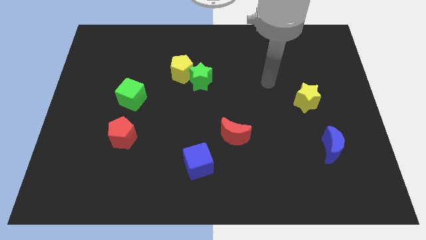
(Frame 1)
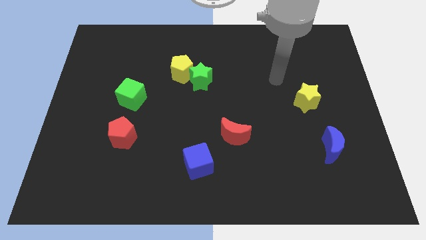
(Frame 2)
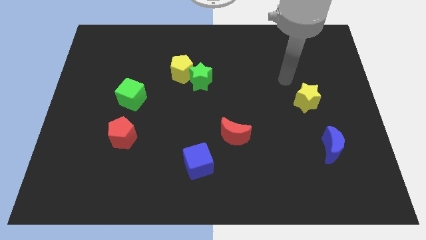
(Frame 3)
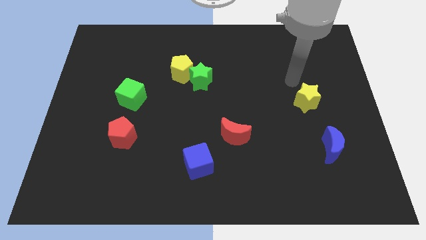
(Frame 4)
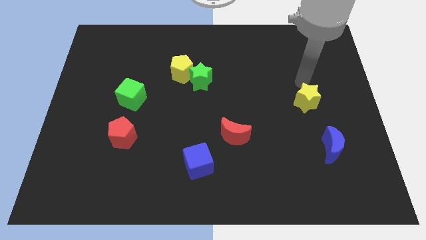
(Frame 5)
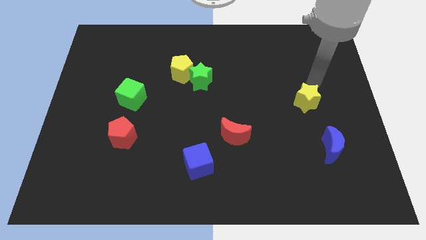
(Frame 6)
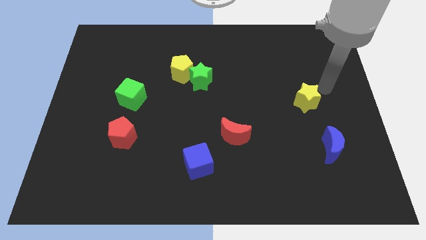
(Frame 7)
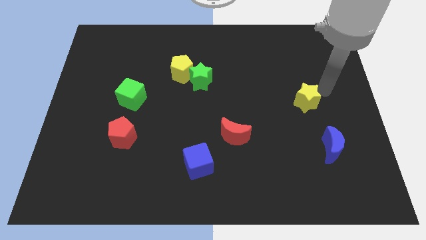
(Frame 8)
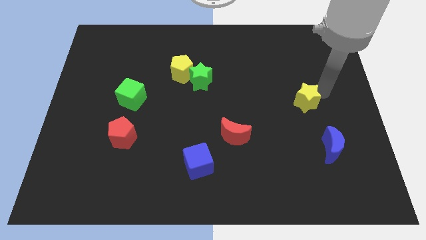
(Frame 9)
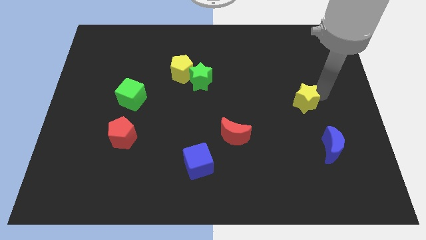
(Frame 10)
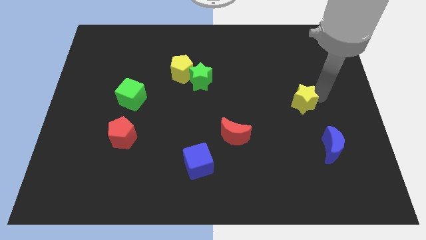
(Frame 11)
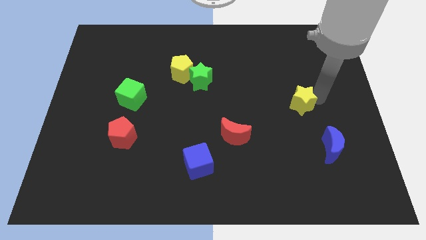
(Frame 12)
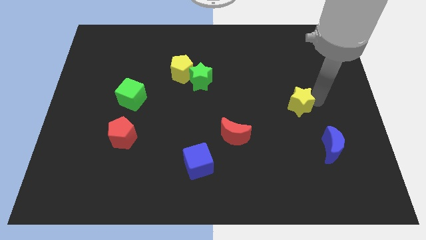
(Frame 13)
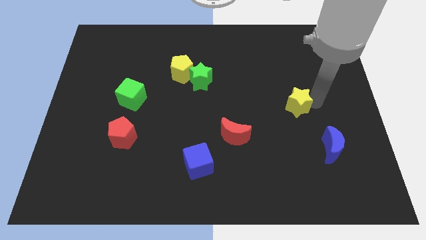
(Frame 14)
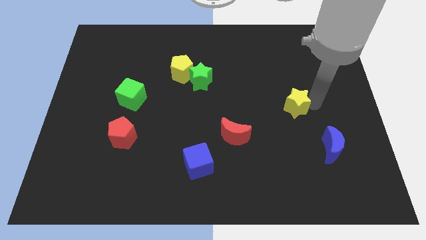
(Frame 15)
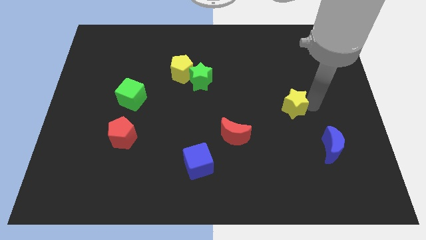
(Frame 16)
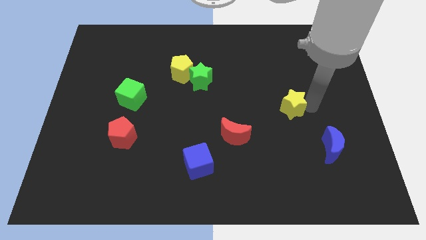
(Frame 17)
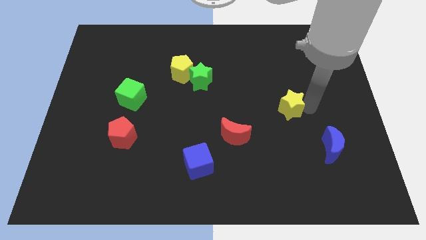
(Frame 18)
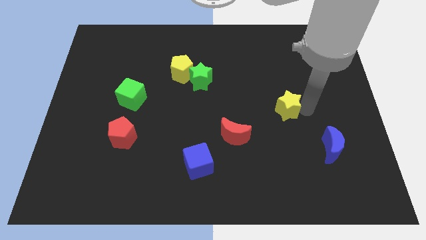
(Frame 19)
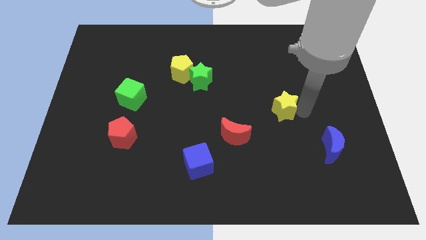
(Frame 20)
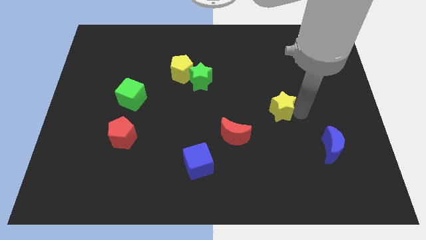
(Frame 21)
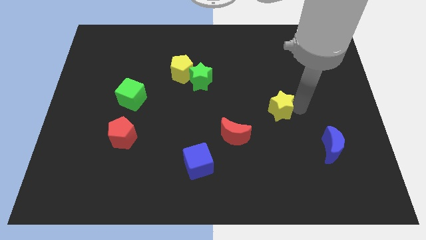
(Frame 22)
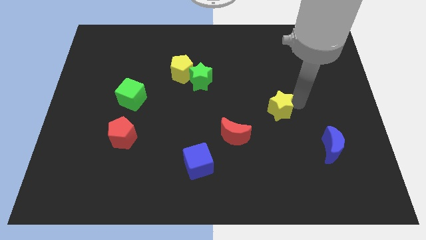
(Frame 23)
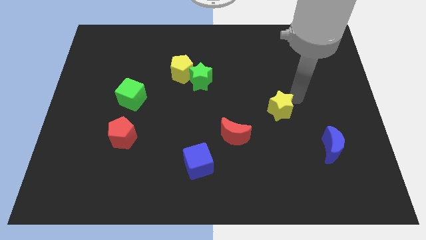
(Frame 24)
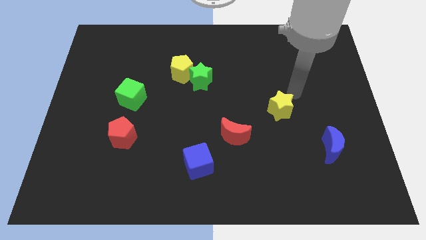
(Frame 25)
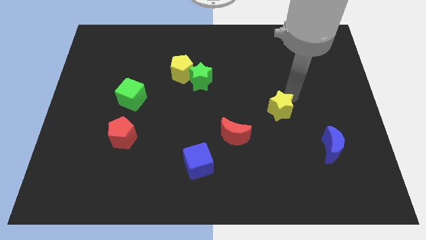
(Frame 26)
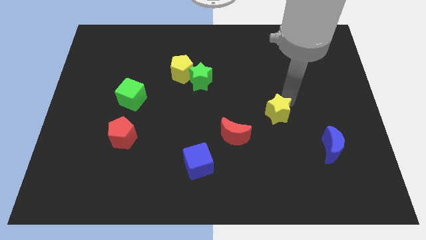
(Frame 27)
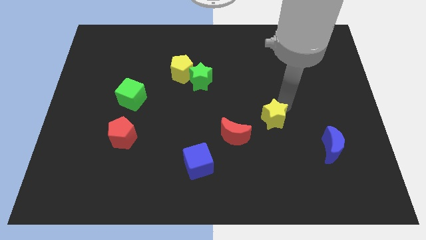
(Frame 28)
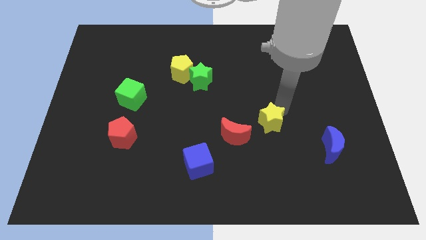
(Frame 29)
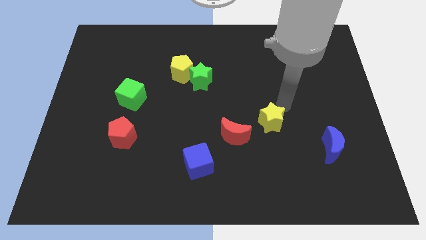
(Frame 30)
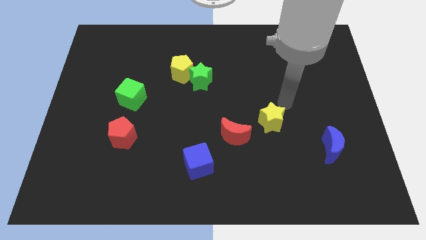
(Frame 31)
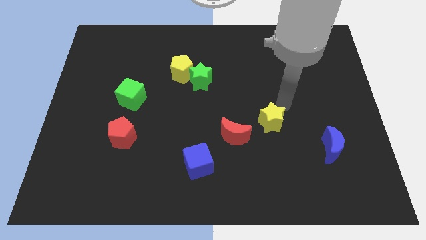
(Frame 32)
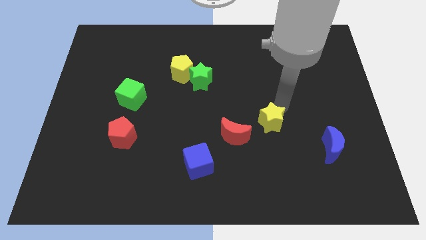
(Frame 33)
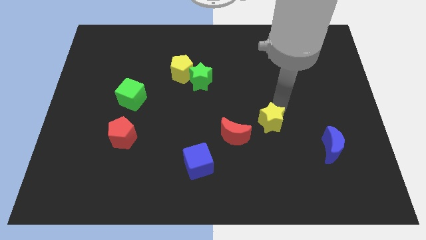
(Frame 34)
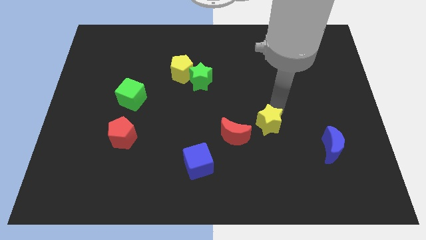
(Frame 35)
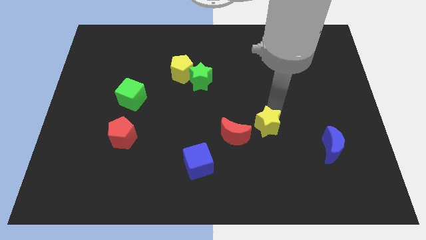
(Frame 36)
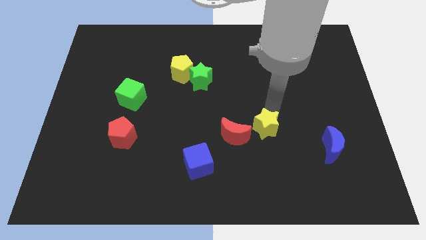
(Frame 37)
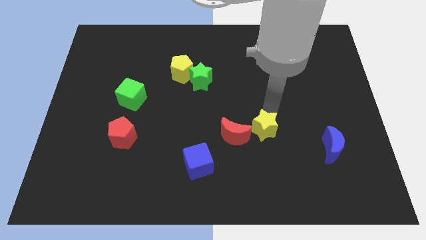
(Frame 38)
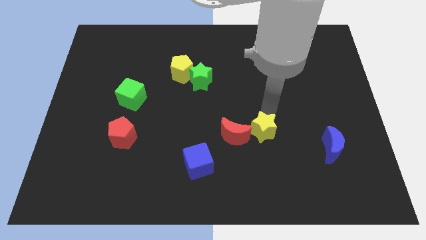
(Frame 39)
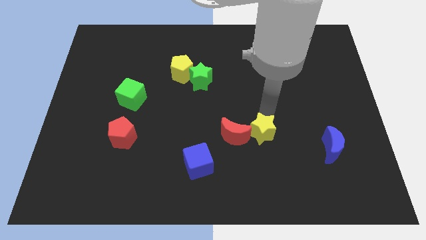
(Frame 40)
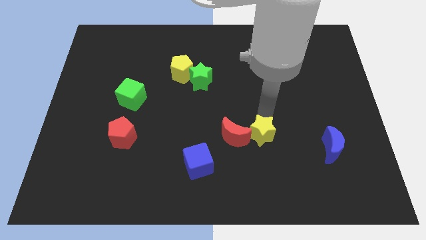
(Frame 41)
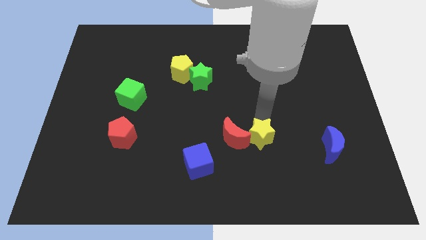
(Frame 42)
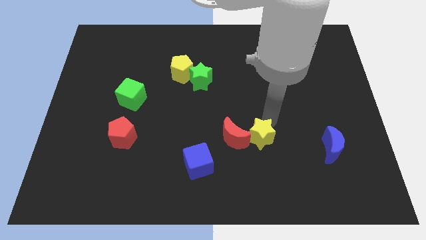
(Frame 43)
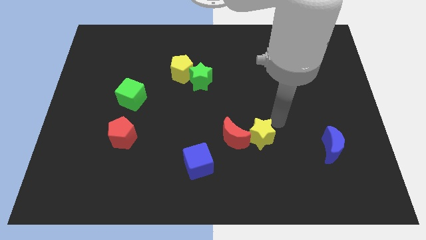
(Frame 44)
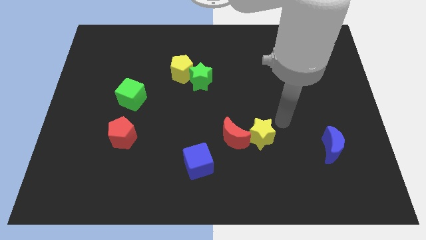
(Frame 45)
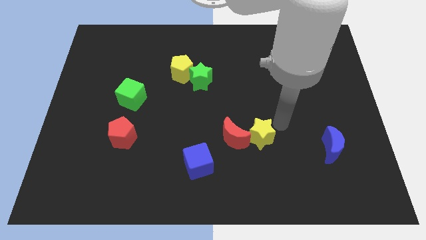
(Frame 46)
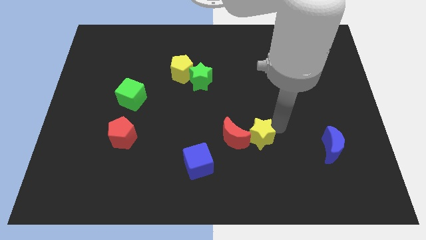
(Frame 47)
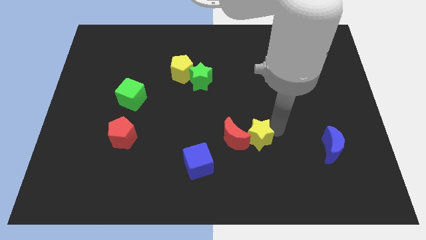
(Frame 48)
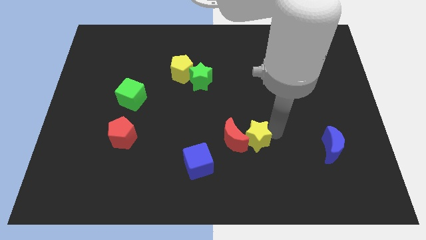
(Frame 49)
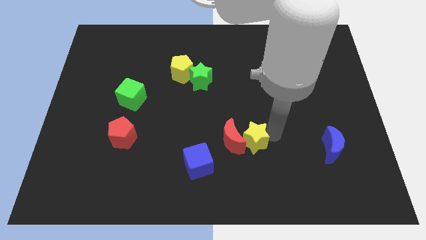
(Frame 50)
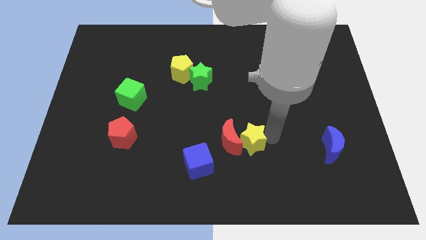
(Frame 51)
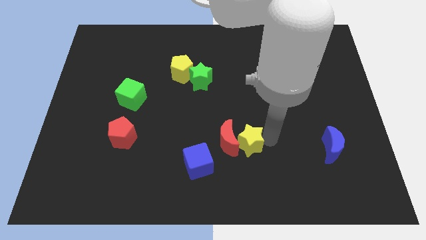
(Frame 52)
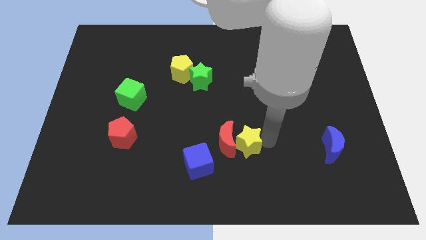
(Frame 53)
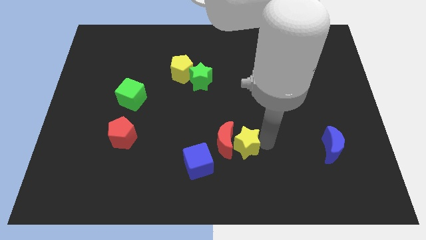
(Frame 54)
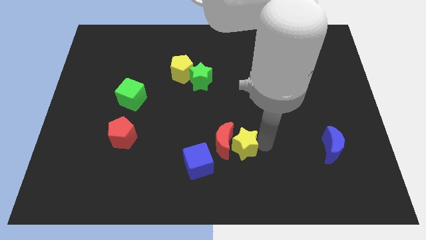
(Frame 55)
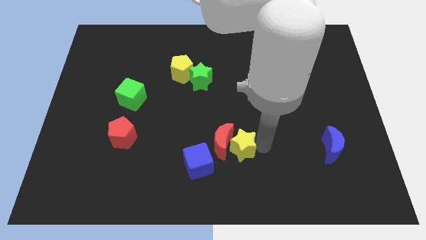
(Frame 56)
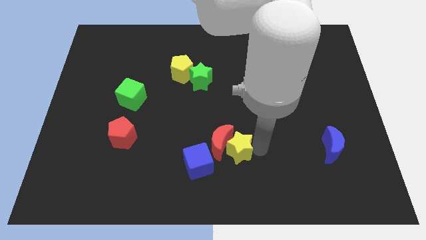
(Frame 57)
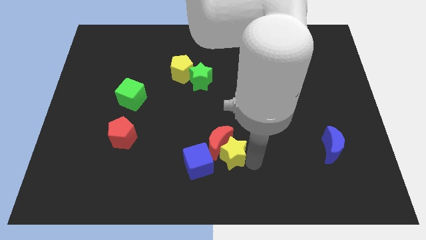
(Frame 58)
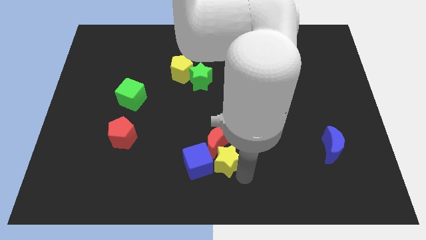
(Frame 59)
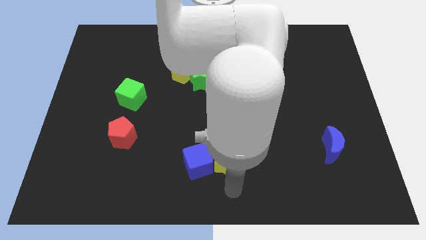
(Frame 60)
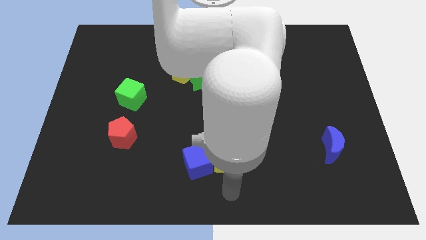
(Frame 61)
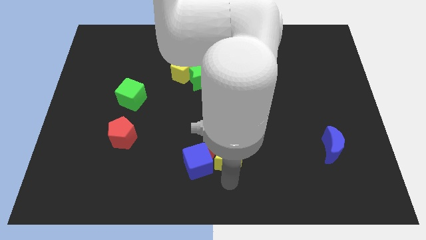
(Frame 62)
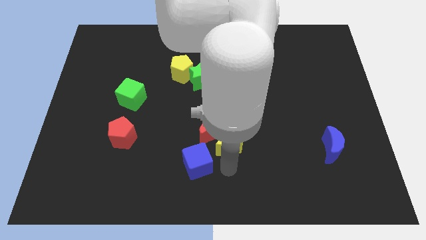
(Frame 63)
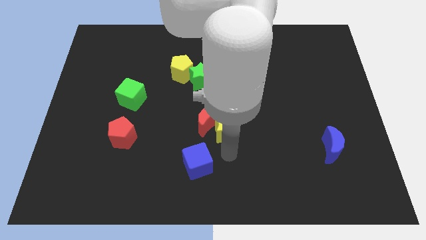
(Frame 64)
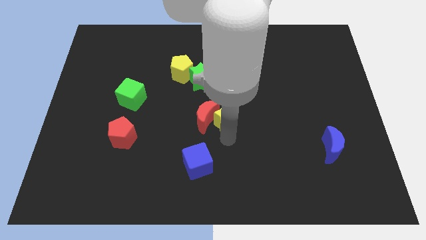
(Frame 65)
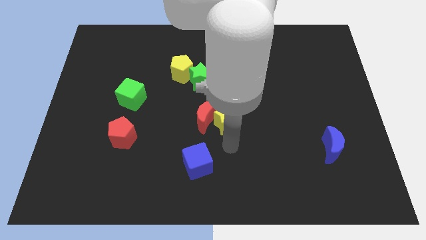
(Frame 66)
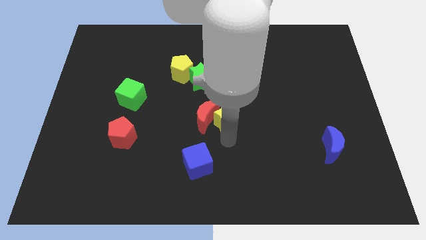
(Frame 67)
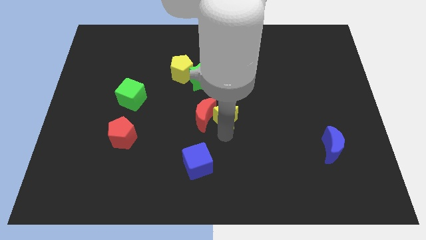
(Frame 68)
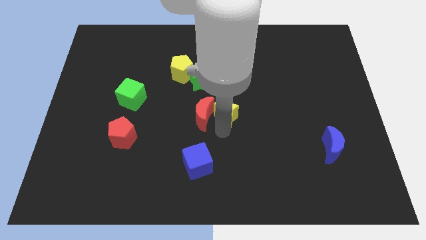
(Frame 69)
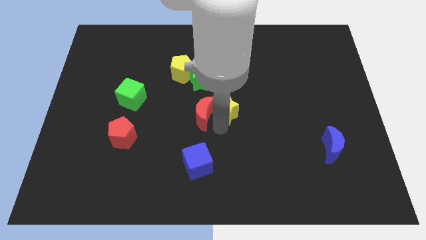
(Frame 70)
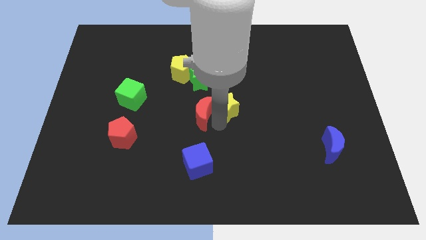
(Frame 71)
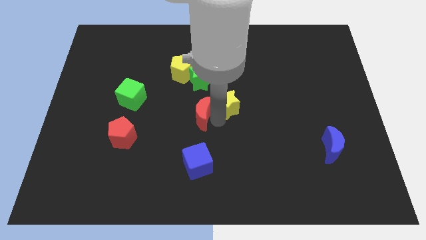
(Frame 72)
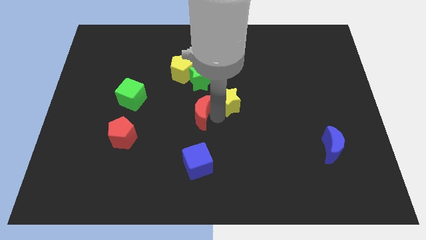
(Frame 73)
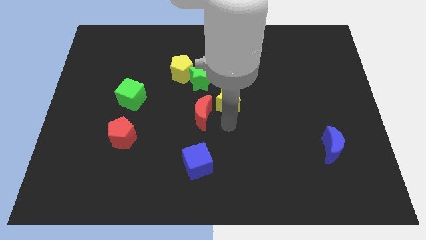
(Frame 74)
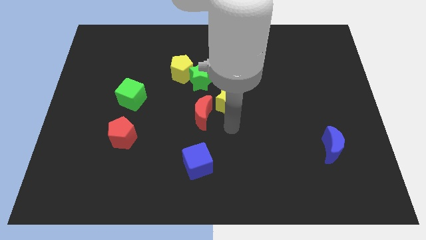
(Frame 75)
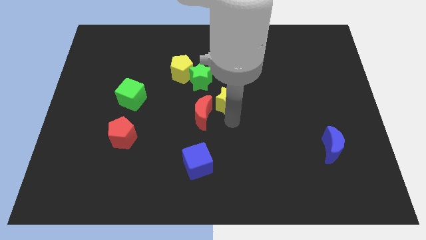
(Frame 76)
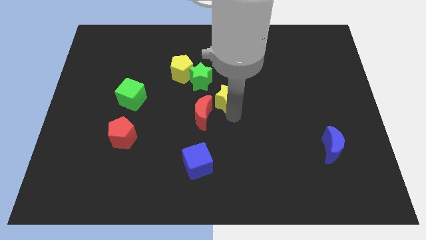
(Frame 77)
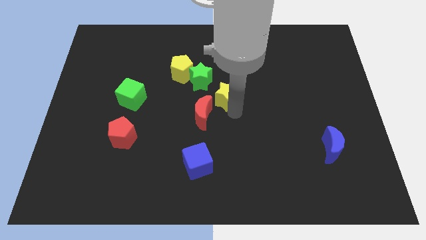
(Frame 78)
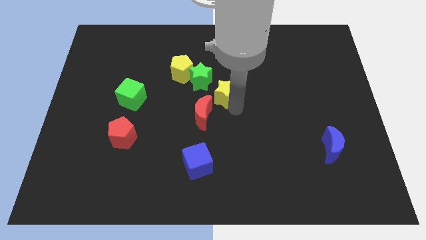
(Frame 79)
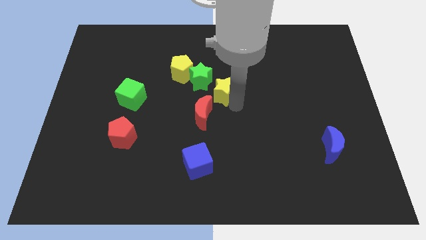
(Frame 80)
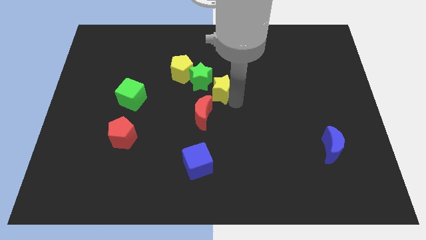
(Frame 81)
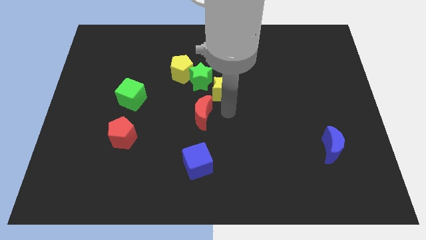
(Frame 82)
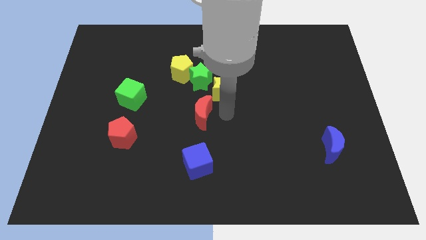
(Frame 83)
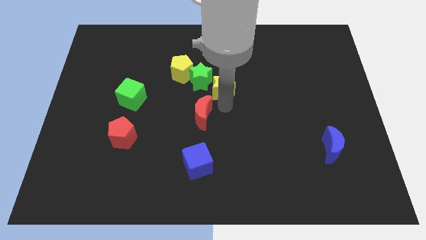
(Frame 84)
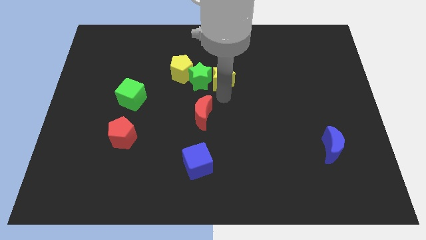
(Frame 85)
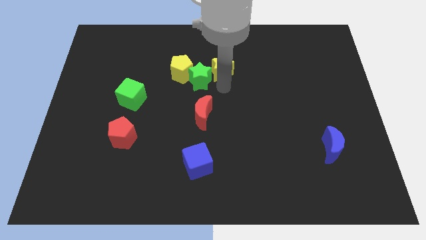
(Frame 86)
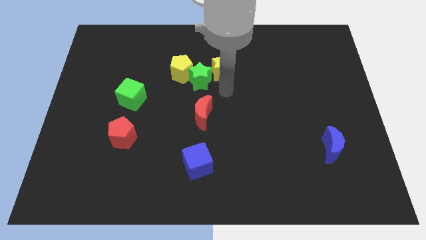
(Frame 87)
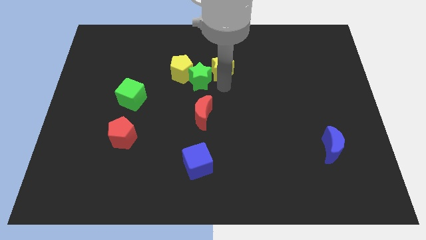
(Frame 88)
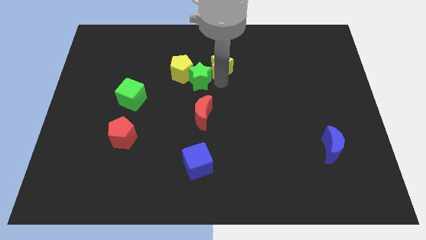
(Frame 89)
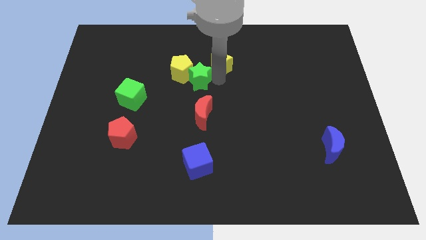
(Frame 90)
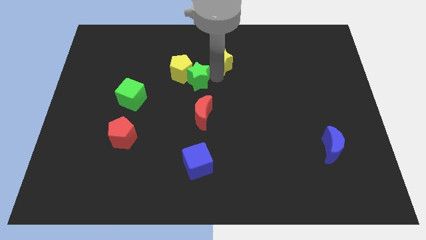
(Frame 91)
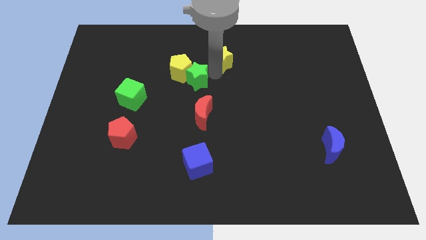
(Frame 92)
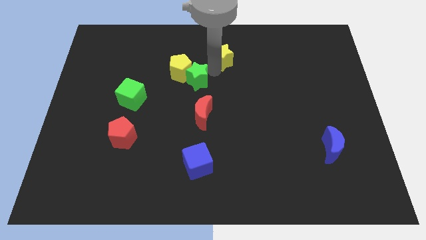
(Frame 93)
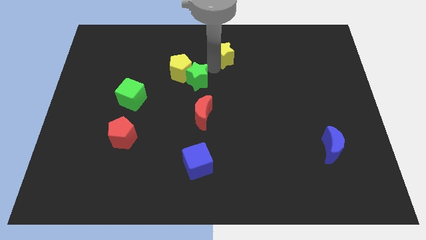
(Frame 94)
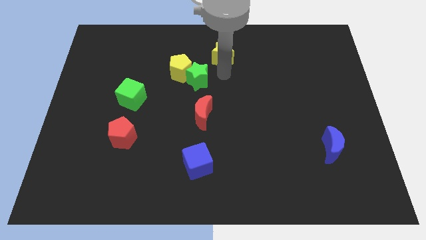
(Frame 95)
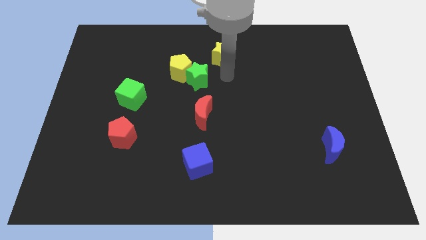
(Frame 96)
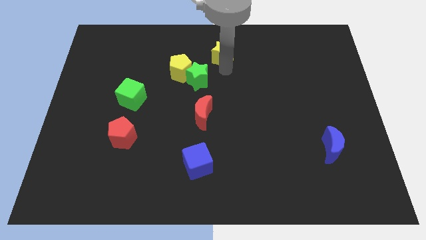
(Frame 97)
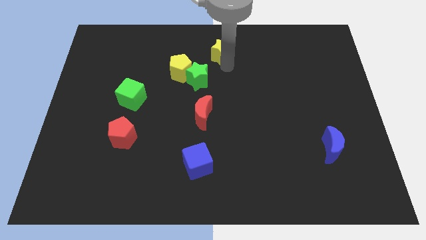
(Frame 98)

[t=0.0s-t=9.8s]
push the yellow star to the top side
